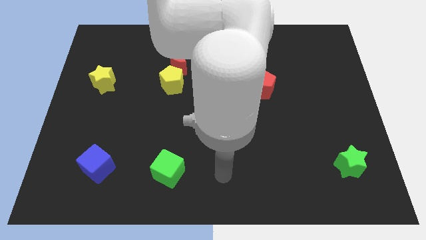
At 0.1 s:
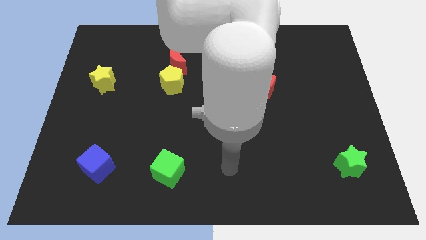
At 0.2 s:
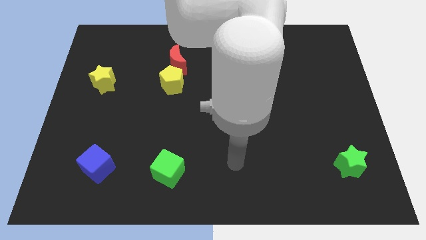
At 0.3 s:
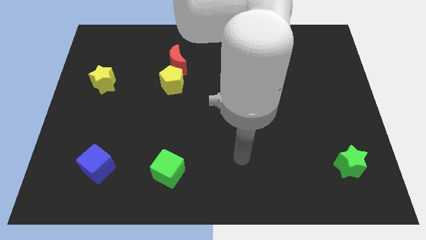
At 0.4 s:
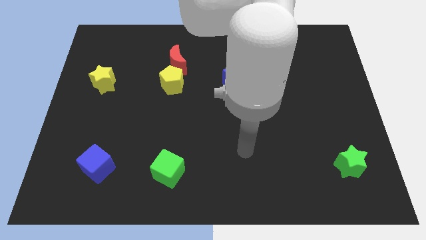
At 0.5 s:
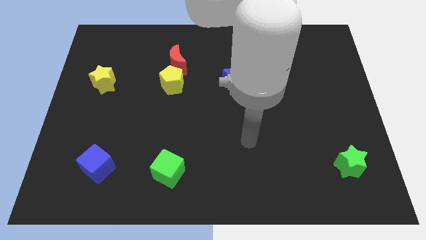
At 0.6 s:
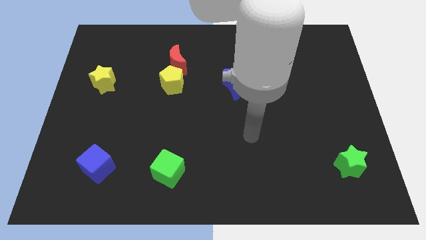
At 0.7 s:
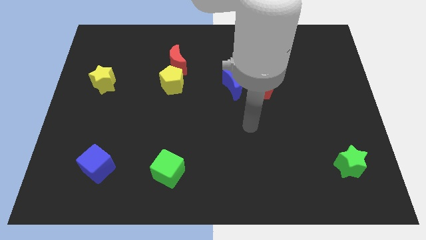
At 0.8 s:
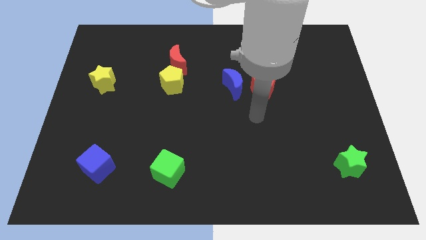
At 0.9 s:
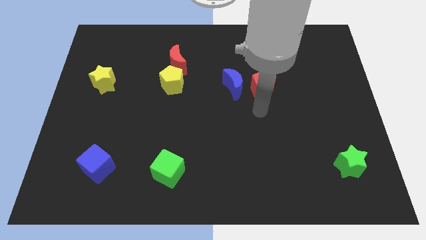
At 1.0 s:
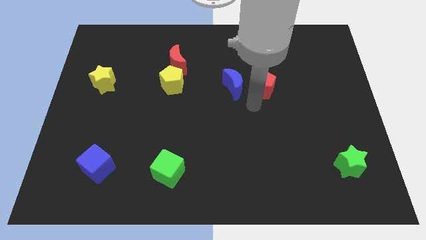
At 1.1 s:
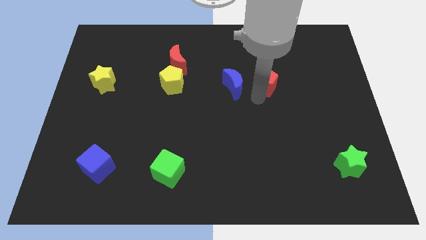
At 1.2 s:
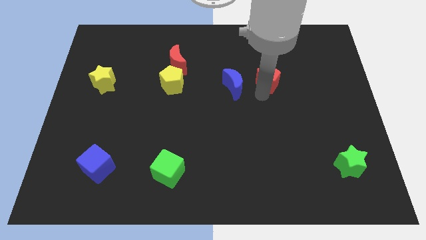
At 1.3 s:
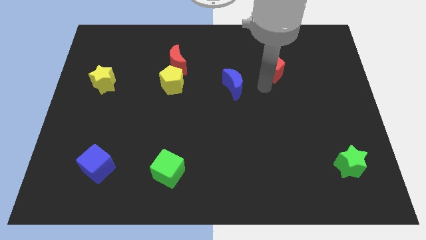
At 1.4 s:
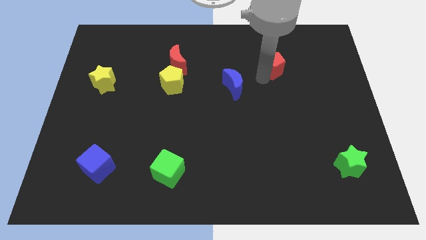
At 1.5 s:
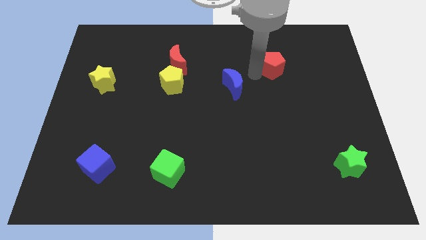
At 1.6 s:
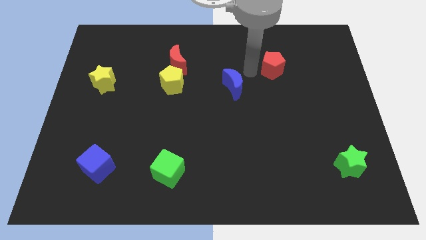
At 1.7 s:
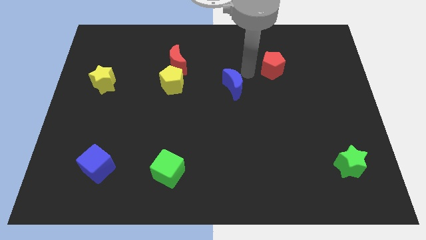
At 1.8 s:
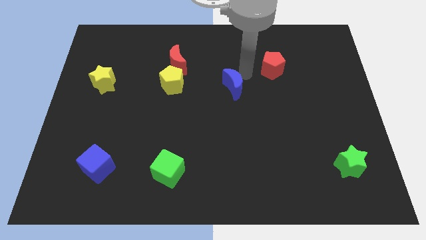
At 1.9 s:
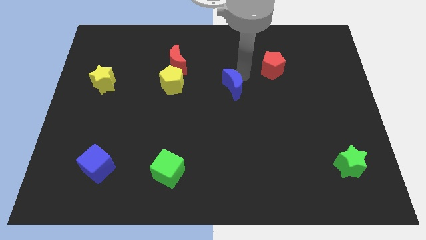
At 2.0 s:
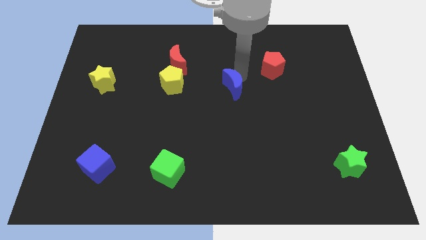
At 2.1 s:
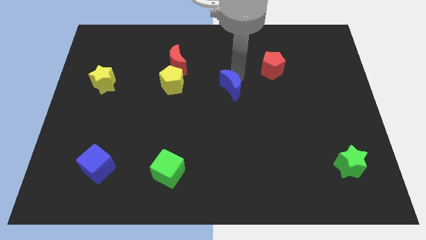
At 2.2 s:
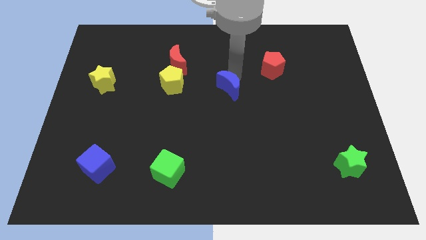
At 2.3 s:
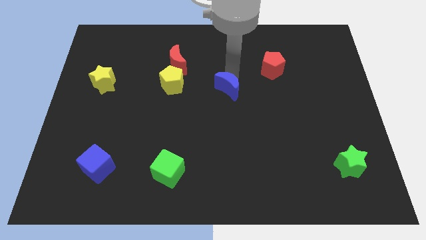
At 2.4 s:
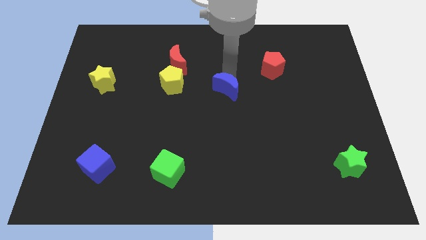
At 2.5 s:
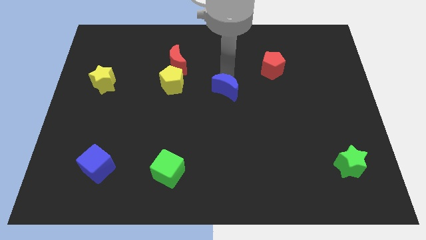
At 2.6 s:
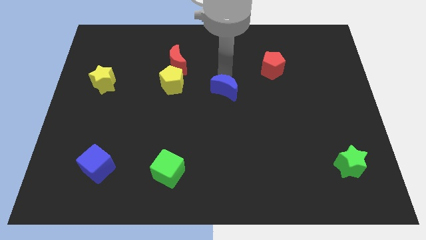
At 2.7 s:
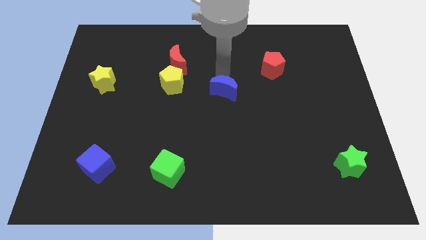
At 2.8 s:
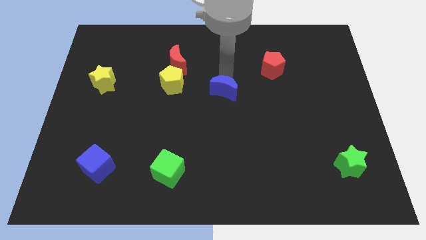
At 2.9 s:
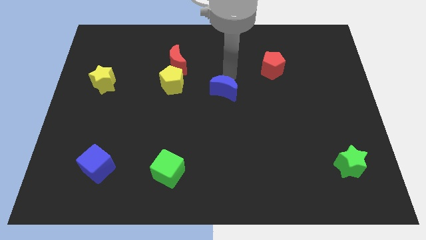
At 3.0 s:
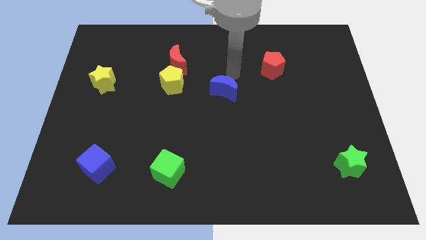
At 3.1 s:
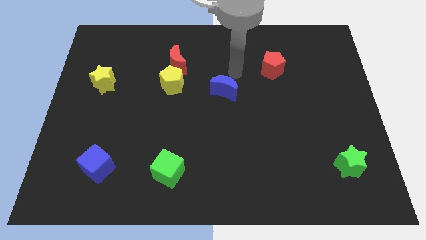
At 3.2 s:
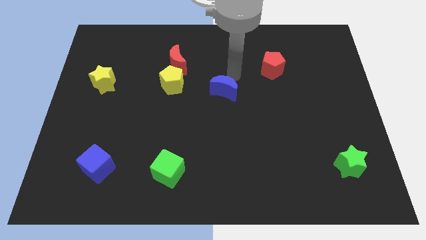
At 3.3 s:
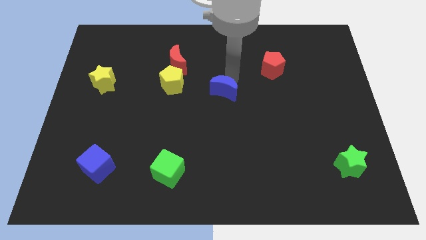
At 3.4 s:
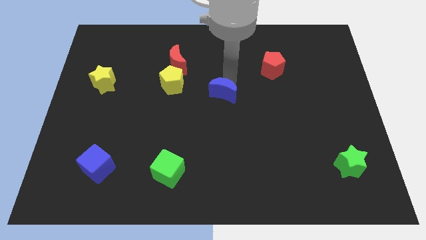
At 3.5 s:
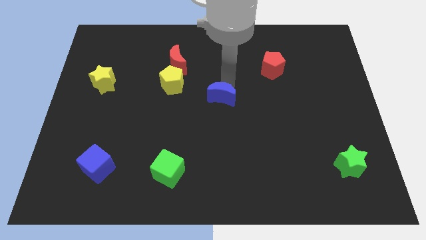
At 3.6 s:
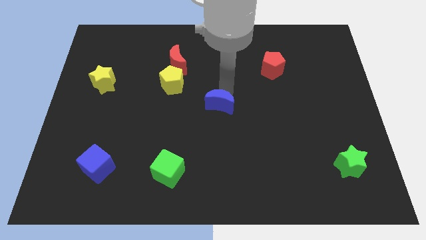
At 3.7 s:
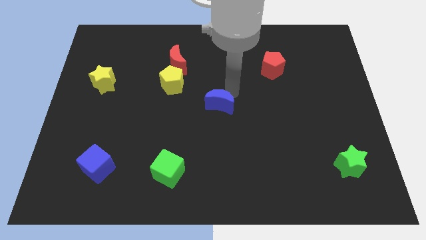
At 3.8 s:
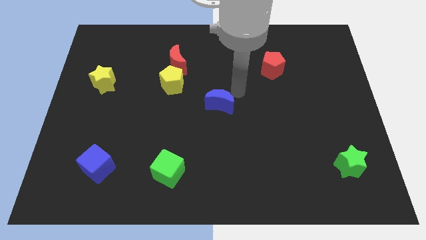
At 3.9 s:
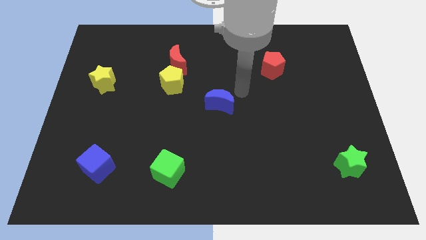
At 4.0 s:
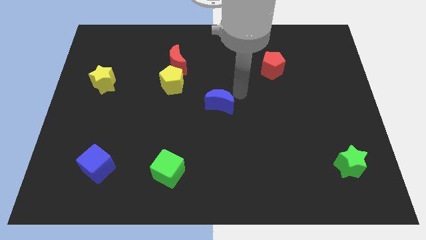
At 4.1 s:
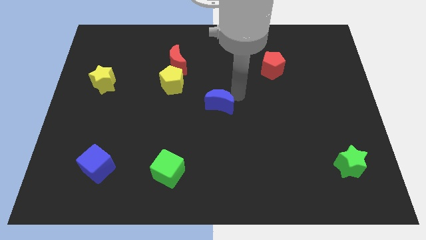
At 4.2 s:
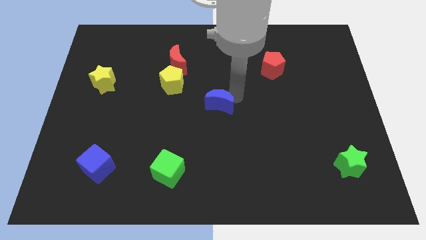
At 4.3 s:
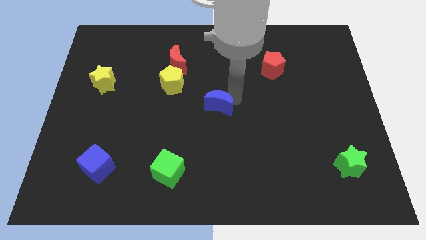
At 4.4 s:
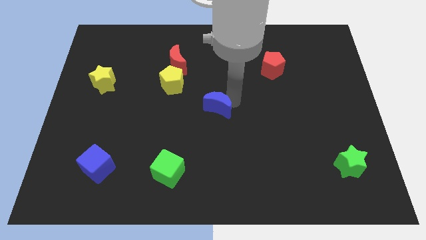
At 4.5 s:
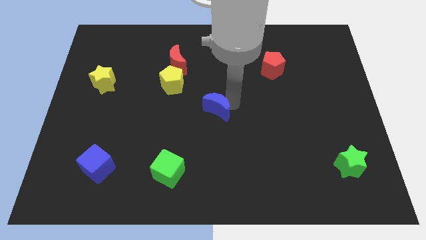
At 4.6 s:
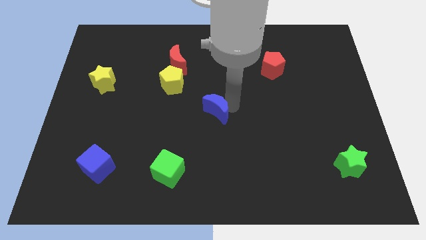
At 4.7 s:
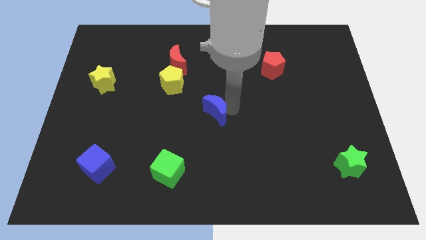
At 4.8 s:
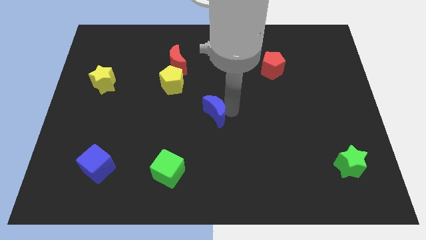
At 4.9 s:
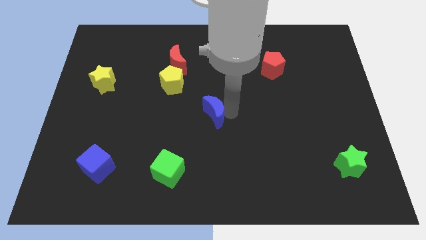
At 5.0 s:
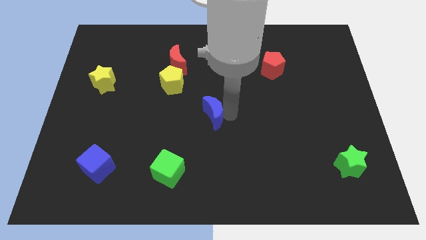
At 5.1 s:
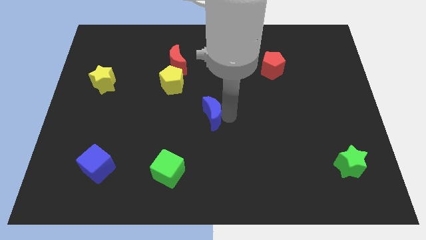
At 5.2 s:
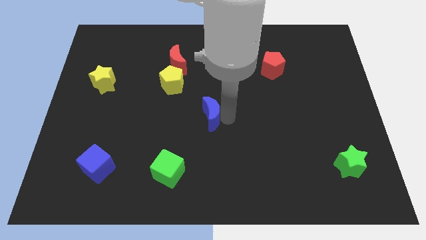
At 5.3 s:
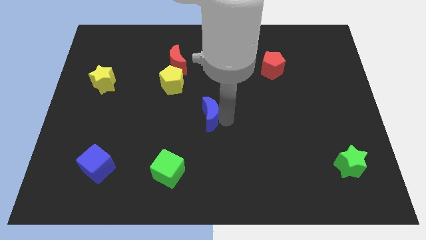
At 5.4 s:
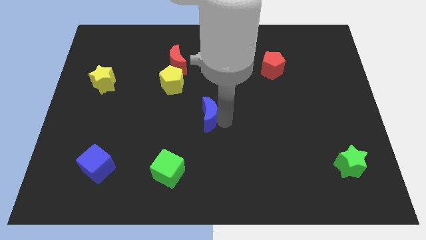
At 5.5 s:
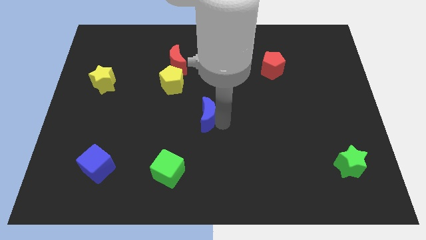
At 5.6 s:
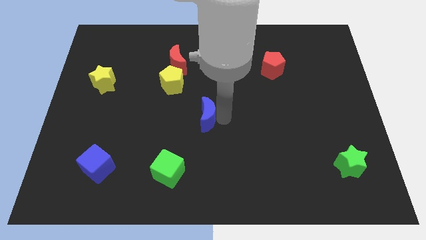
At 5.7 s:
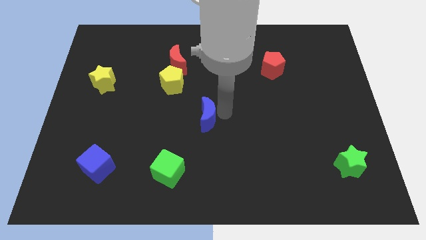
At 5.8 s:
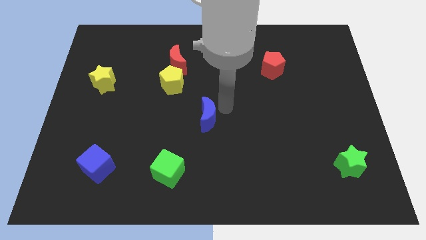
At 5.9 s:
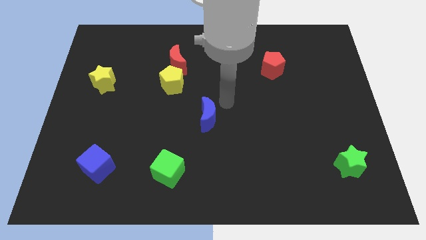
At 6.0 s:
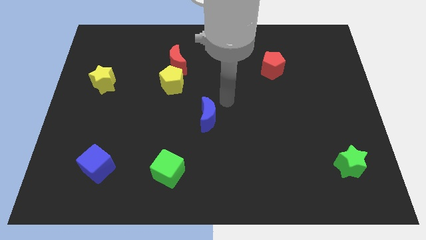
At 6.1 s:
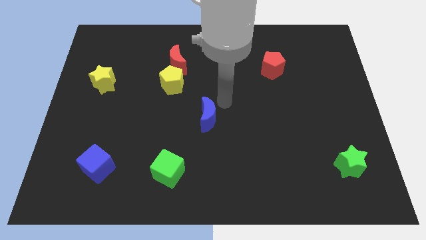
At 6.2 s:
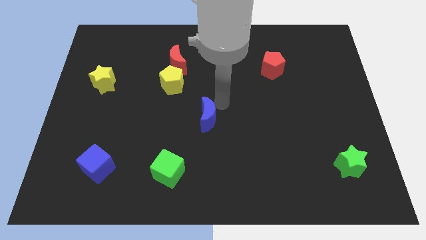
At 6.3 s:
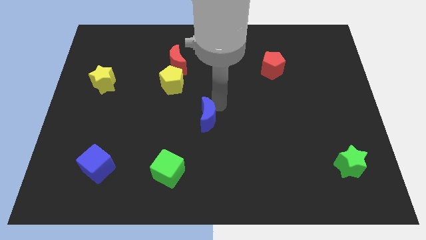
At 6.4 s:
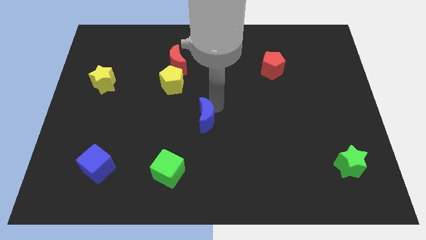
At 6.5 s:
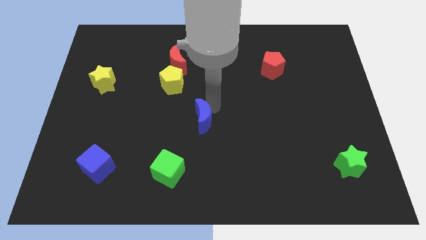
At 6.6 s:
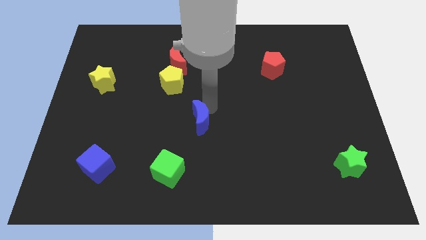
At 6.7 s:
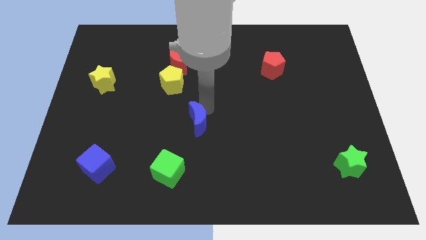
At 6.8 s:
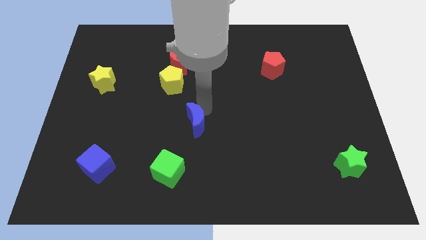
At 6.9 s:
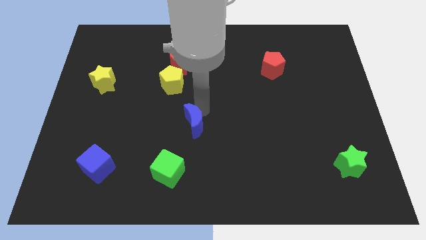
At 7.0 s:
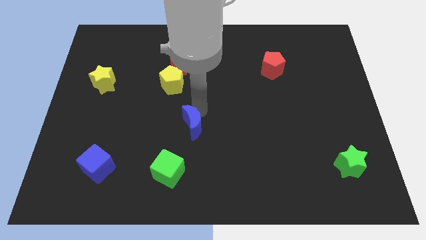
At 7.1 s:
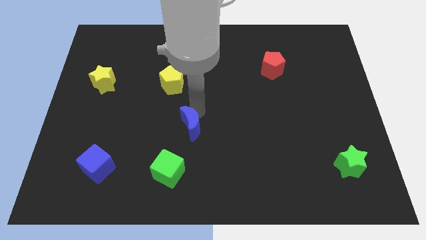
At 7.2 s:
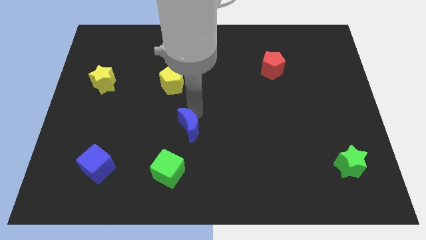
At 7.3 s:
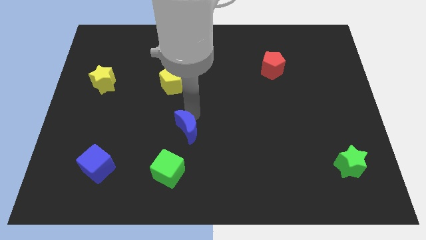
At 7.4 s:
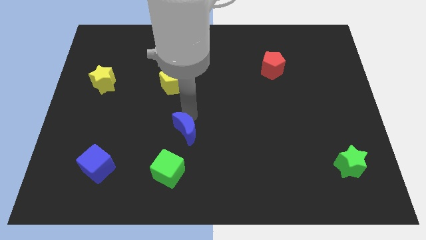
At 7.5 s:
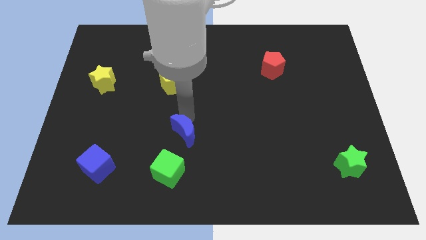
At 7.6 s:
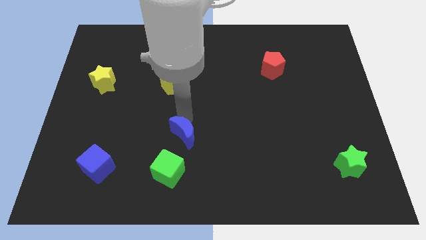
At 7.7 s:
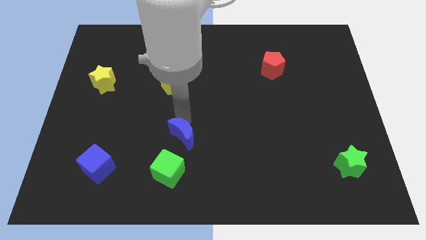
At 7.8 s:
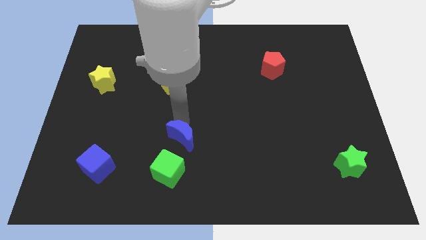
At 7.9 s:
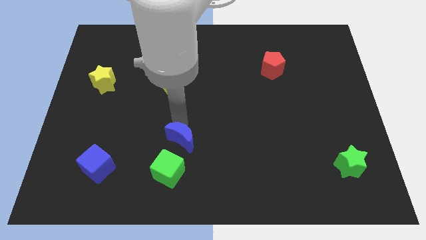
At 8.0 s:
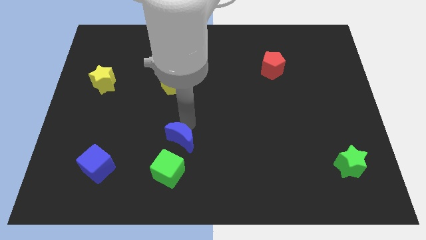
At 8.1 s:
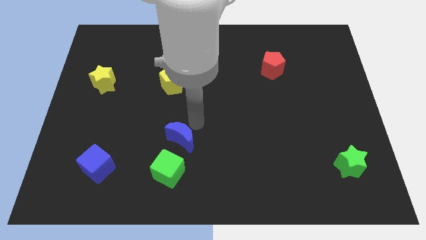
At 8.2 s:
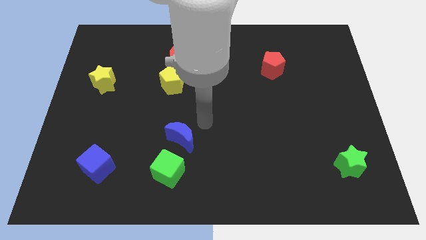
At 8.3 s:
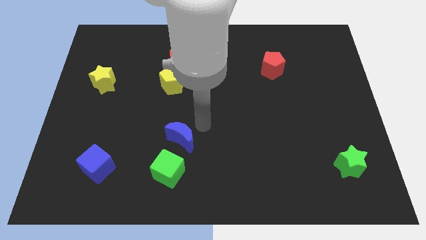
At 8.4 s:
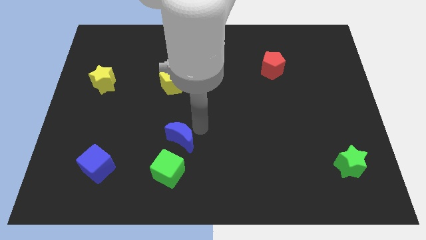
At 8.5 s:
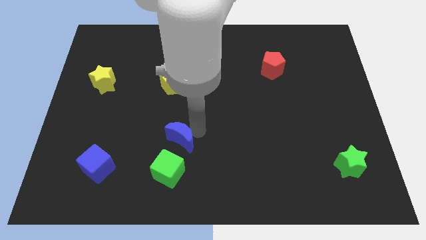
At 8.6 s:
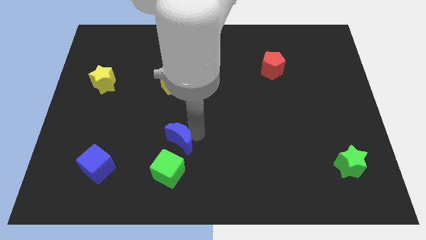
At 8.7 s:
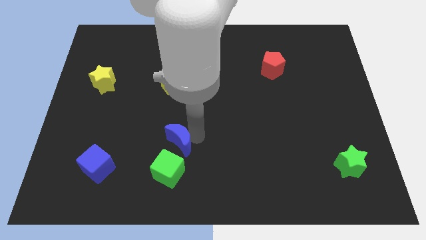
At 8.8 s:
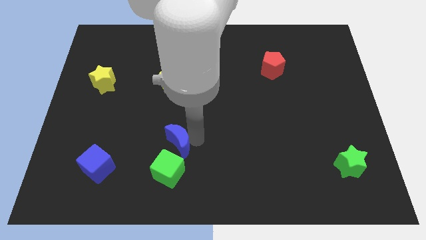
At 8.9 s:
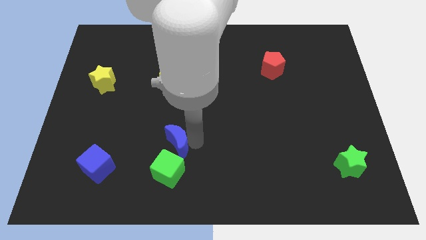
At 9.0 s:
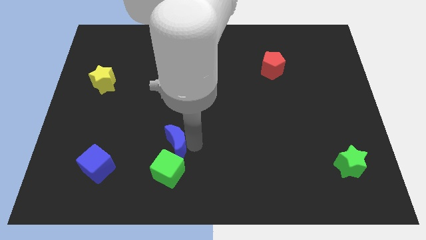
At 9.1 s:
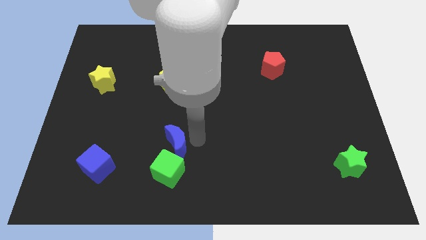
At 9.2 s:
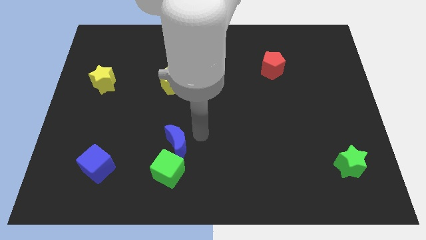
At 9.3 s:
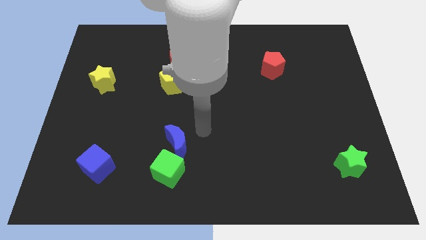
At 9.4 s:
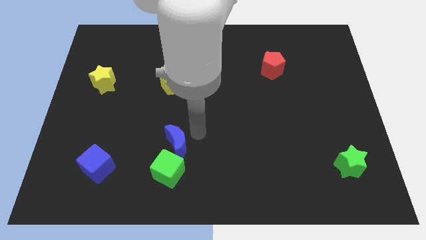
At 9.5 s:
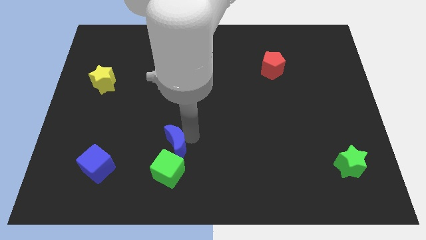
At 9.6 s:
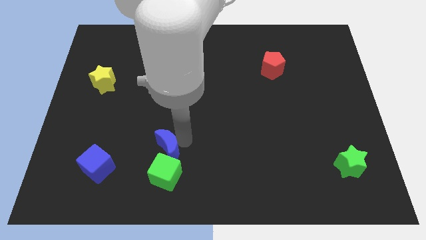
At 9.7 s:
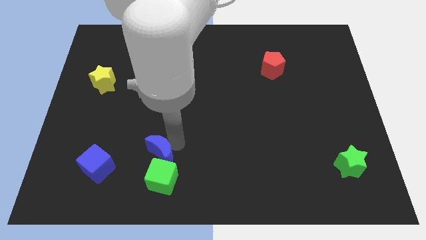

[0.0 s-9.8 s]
put the blue moon just right of the blue cube
